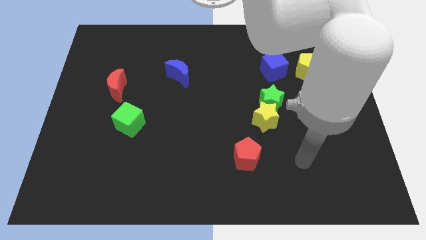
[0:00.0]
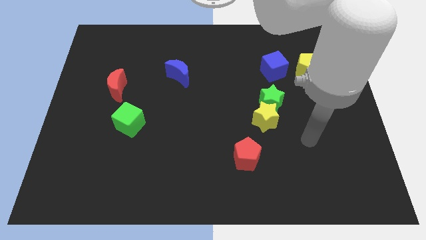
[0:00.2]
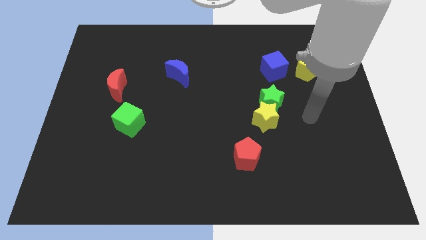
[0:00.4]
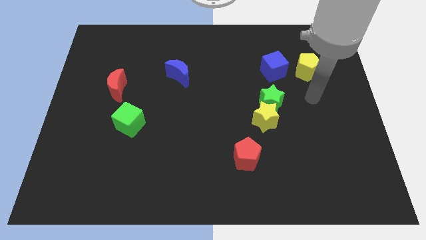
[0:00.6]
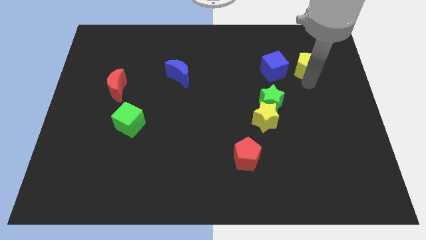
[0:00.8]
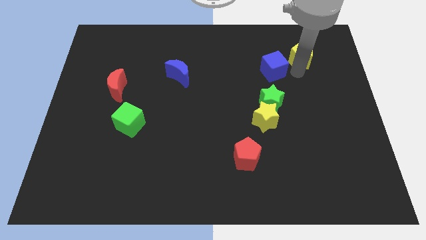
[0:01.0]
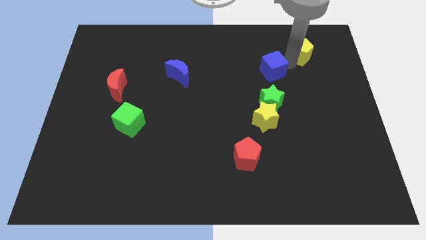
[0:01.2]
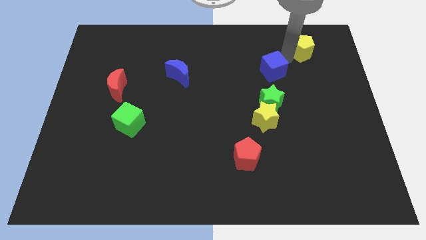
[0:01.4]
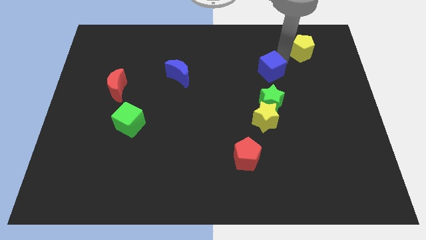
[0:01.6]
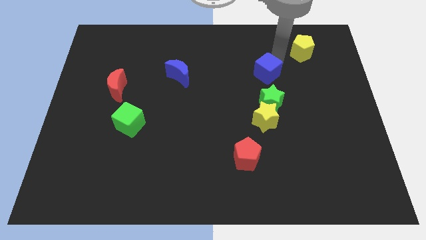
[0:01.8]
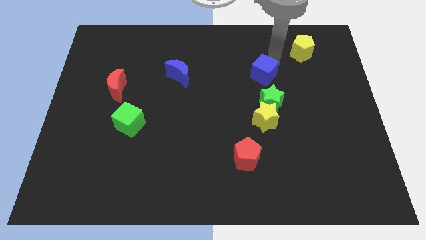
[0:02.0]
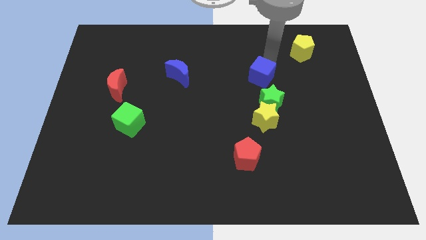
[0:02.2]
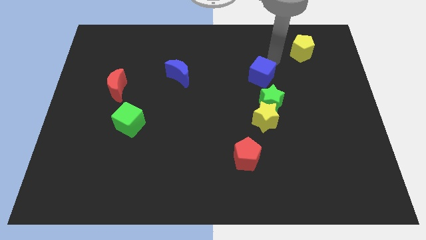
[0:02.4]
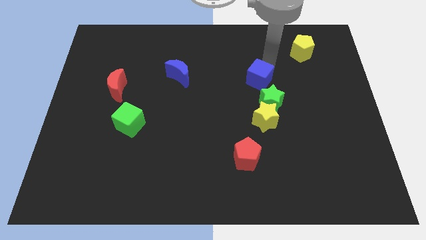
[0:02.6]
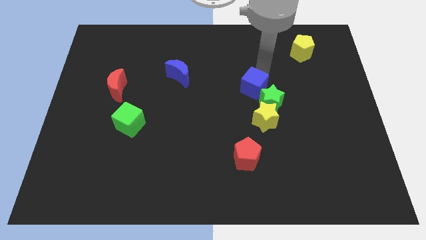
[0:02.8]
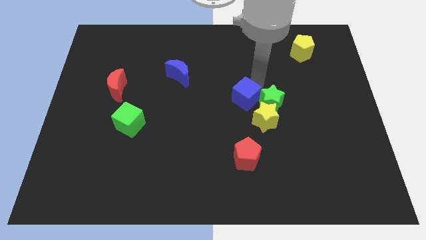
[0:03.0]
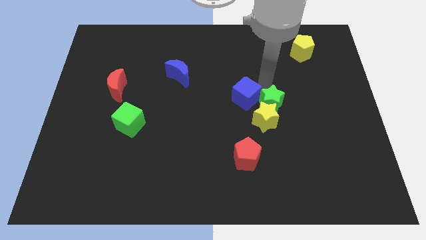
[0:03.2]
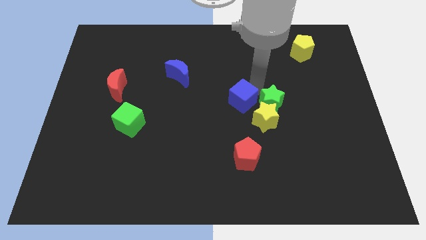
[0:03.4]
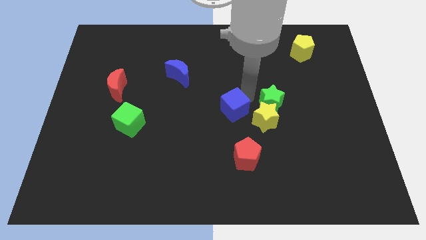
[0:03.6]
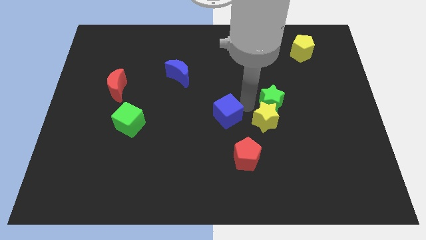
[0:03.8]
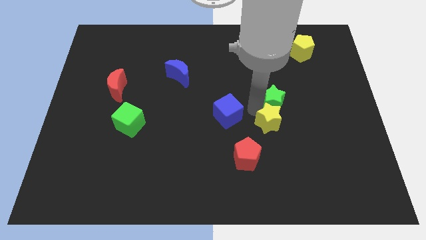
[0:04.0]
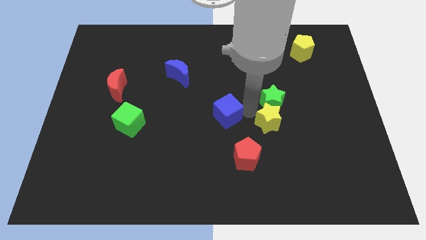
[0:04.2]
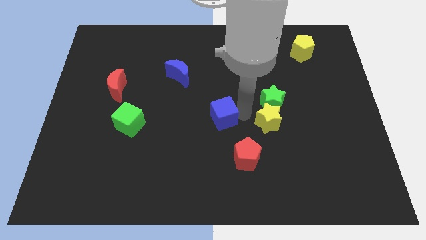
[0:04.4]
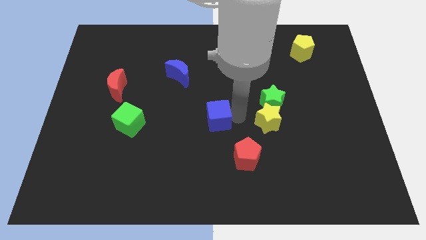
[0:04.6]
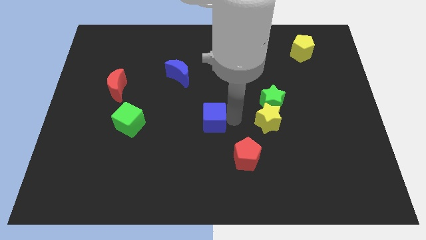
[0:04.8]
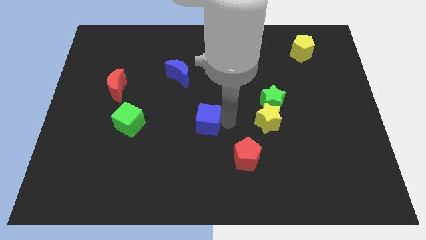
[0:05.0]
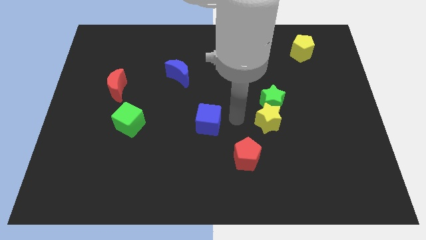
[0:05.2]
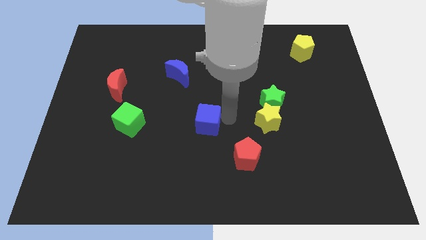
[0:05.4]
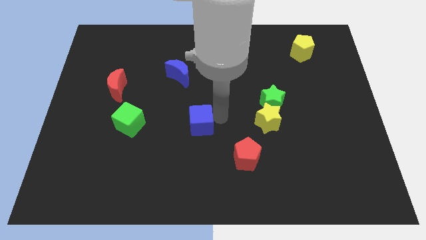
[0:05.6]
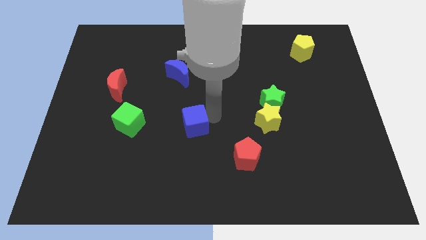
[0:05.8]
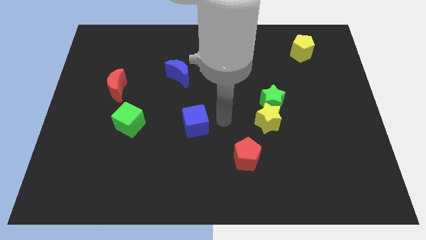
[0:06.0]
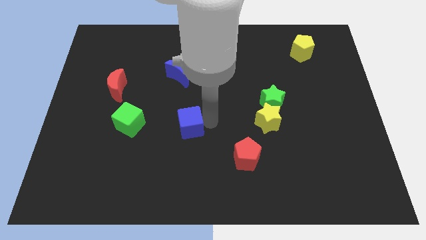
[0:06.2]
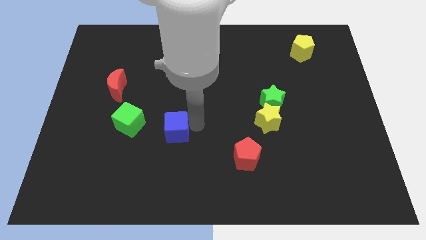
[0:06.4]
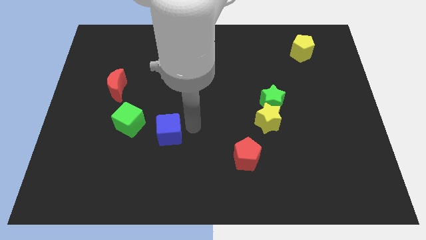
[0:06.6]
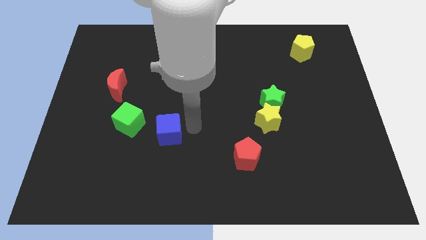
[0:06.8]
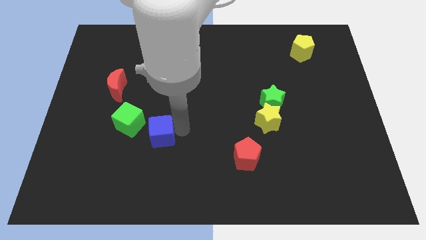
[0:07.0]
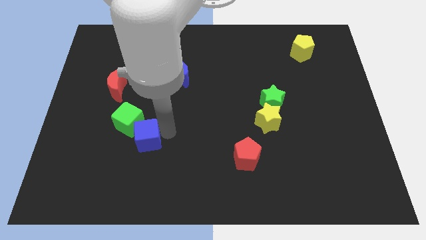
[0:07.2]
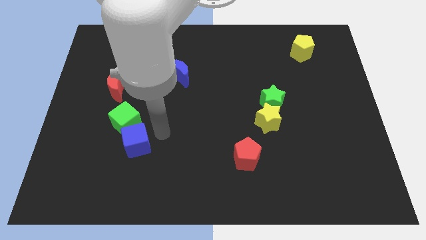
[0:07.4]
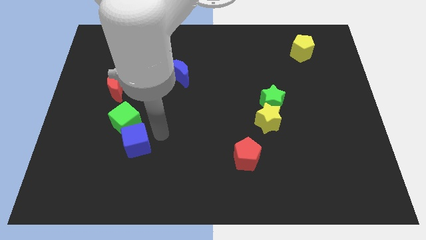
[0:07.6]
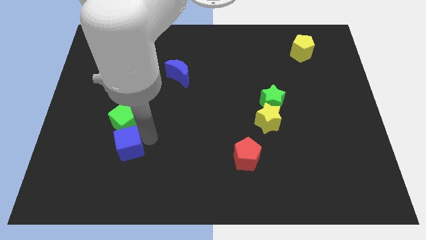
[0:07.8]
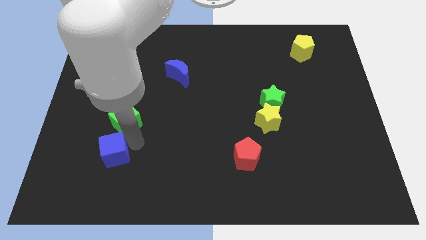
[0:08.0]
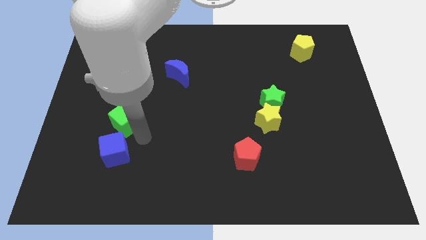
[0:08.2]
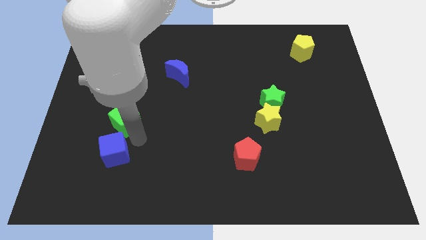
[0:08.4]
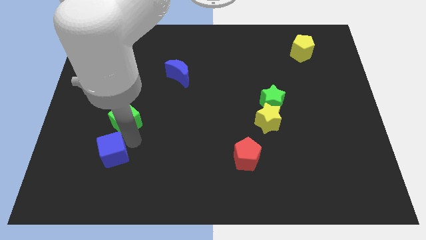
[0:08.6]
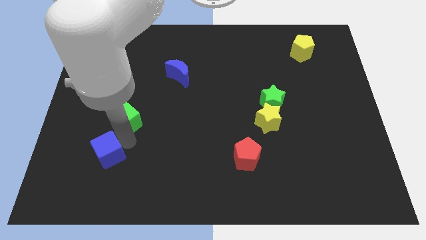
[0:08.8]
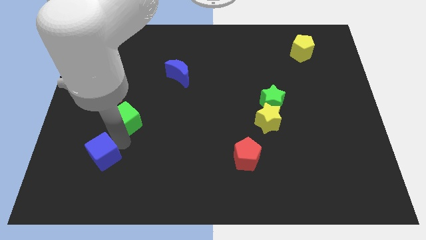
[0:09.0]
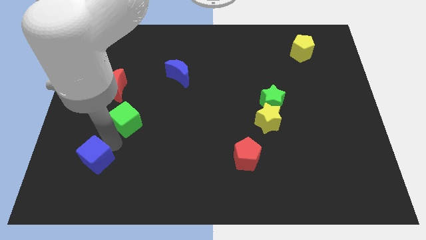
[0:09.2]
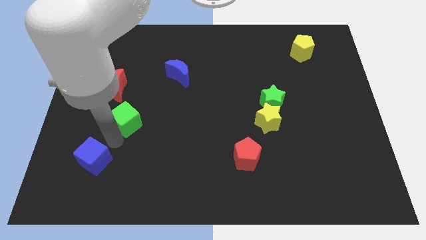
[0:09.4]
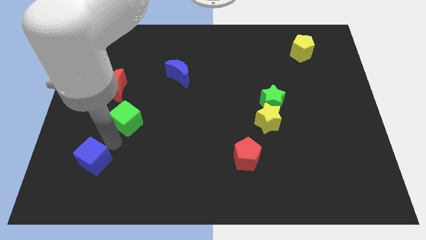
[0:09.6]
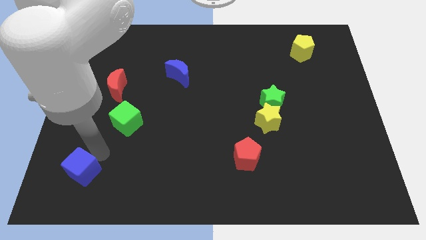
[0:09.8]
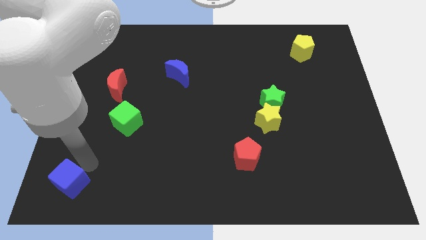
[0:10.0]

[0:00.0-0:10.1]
push the blue cube to the bottom left of the board
